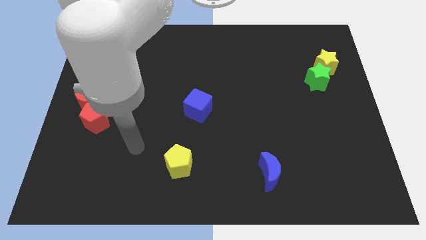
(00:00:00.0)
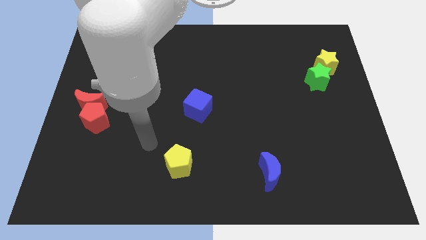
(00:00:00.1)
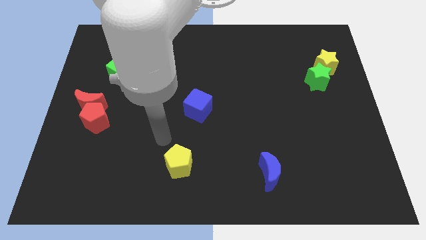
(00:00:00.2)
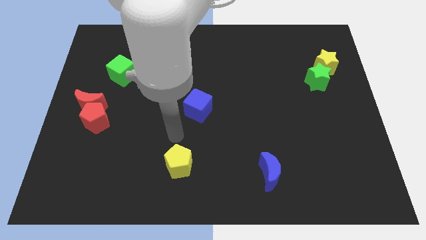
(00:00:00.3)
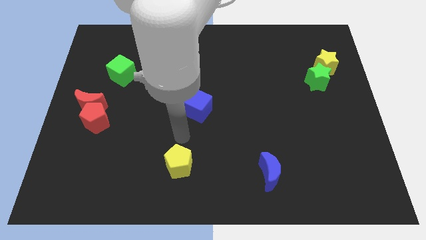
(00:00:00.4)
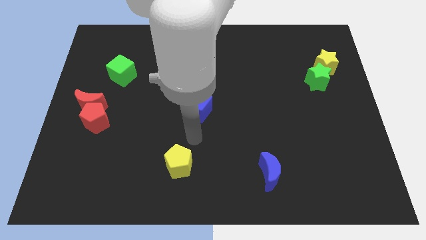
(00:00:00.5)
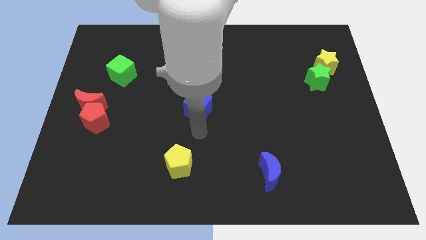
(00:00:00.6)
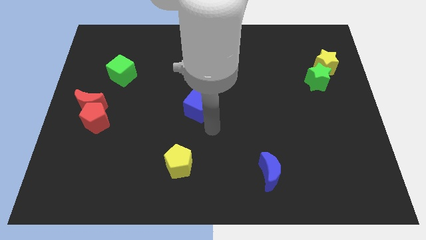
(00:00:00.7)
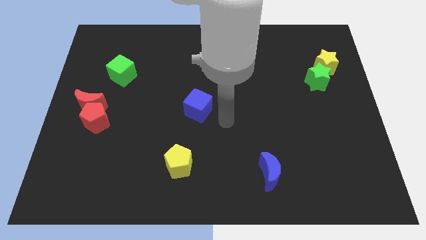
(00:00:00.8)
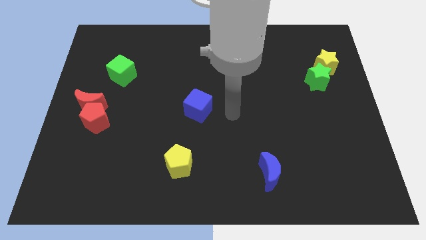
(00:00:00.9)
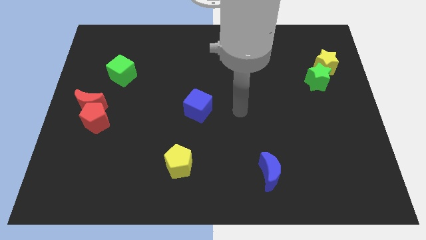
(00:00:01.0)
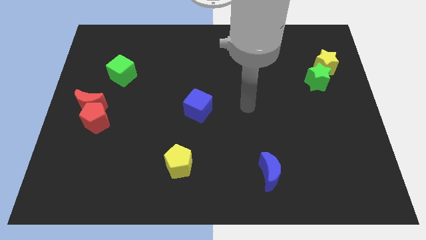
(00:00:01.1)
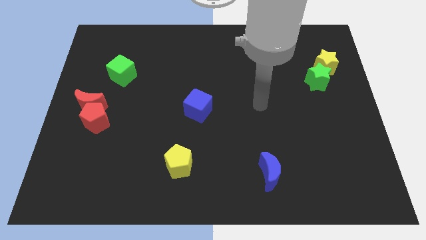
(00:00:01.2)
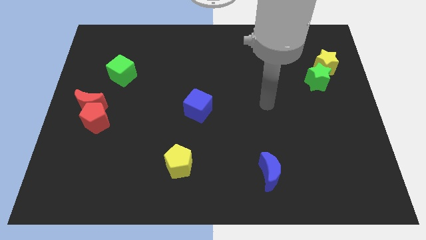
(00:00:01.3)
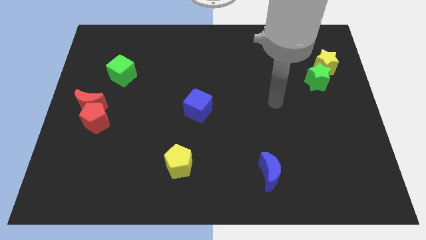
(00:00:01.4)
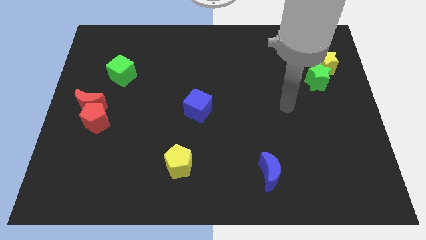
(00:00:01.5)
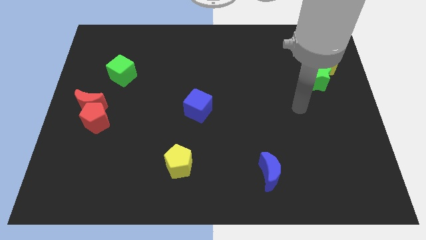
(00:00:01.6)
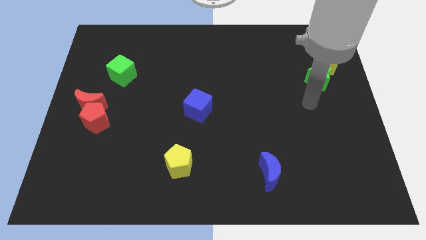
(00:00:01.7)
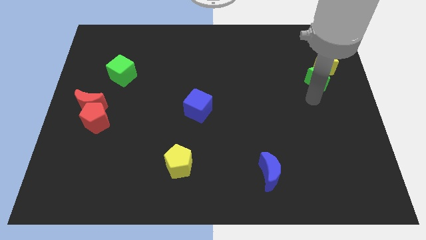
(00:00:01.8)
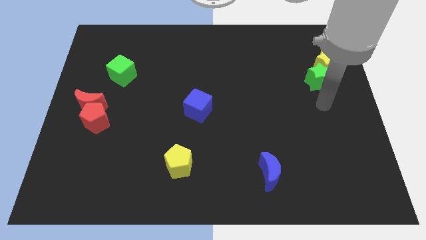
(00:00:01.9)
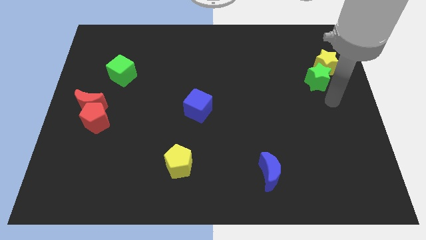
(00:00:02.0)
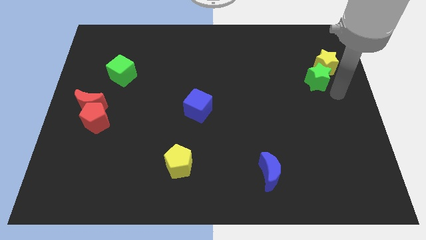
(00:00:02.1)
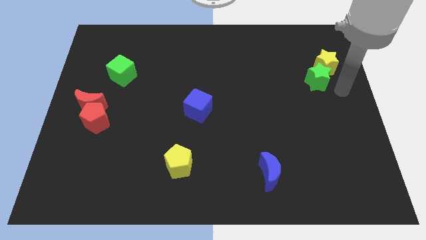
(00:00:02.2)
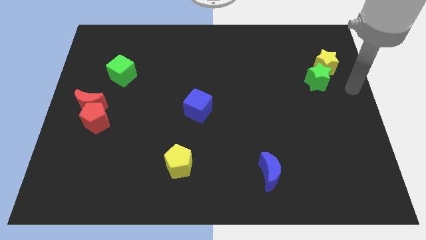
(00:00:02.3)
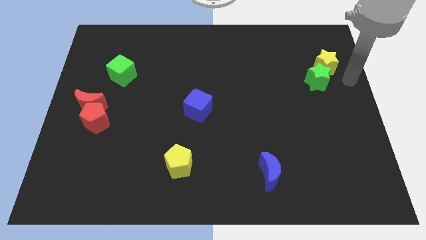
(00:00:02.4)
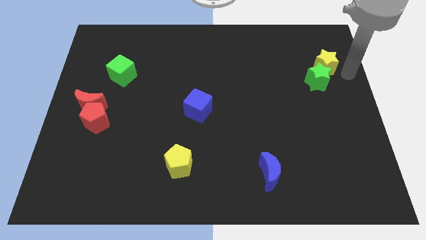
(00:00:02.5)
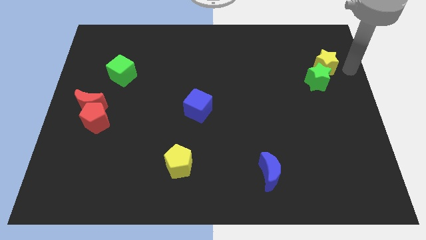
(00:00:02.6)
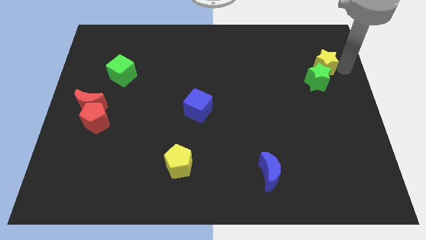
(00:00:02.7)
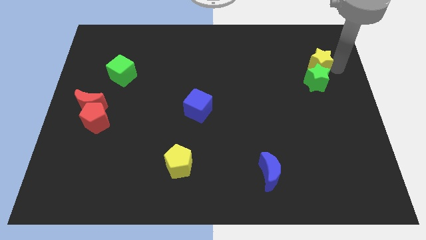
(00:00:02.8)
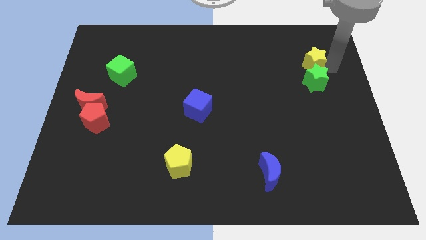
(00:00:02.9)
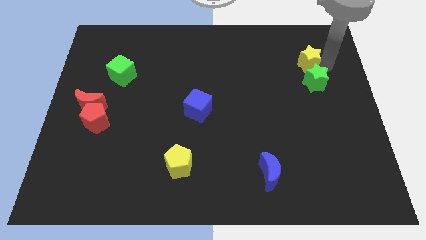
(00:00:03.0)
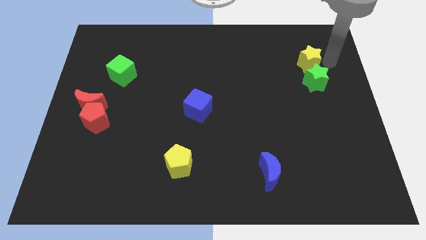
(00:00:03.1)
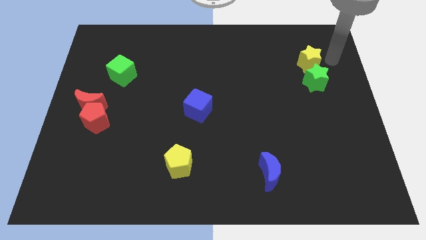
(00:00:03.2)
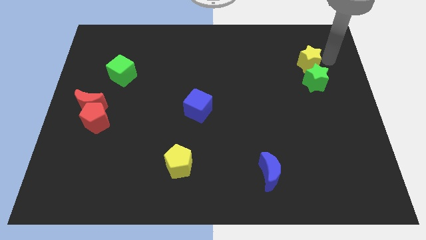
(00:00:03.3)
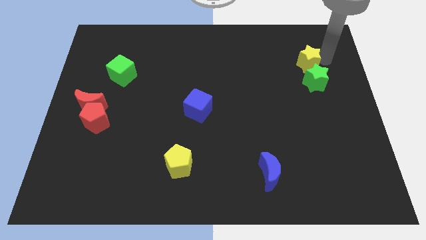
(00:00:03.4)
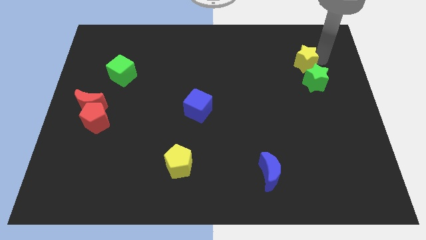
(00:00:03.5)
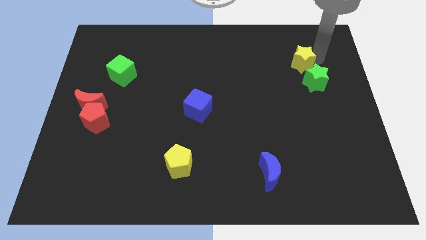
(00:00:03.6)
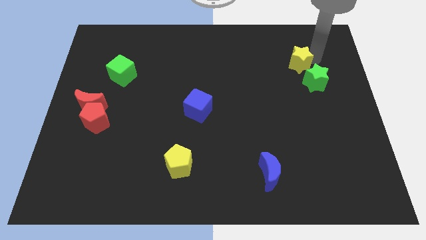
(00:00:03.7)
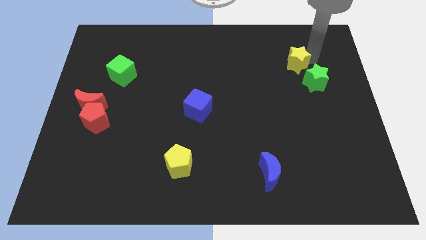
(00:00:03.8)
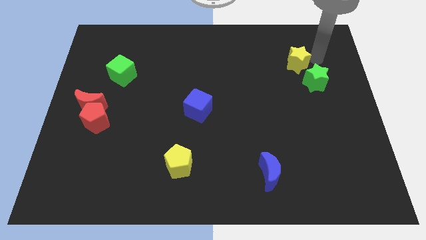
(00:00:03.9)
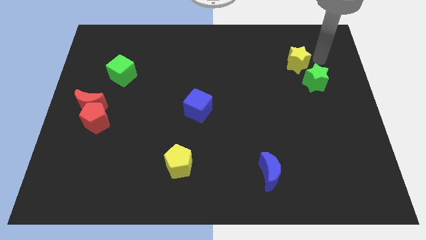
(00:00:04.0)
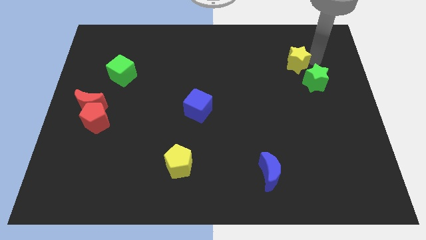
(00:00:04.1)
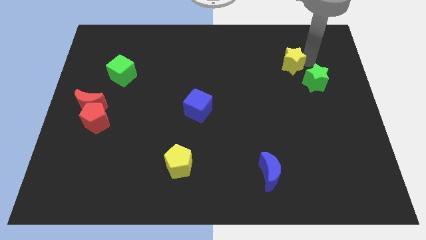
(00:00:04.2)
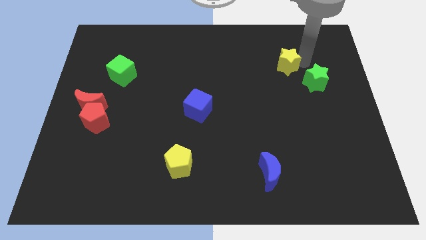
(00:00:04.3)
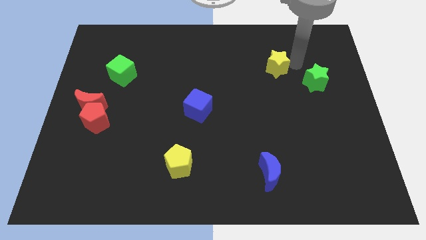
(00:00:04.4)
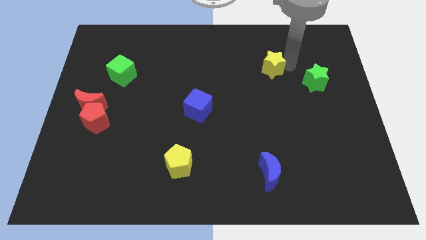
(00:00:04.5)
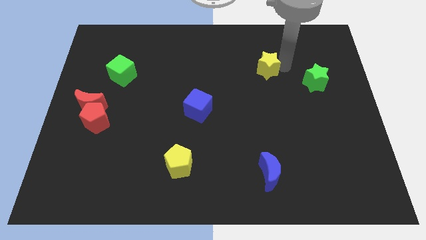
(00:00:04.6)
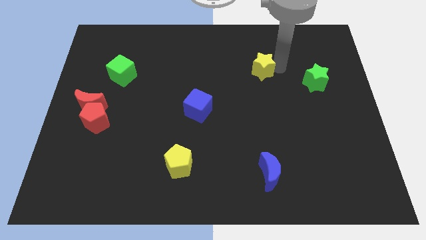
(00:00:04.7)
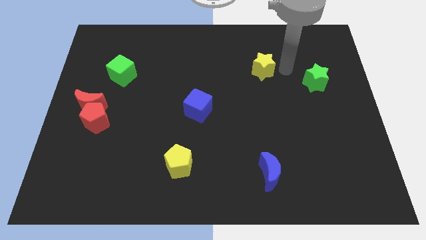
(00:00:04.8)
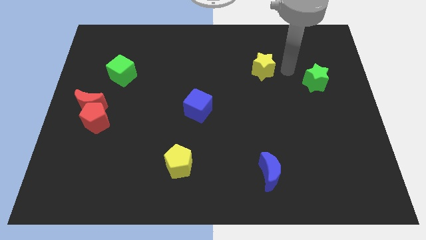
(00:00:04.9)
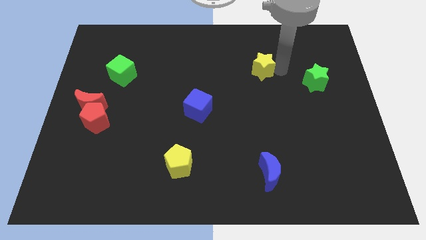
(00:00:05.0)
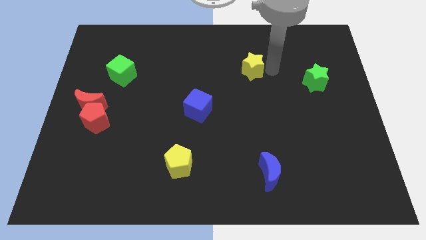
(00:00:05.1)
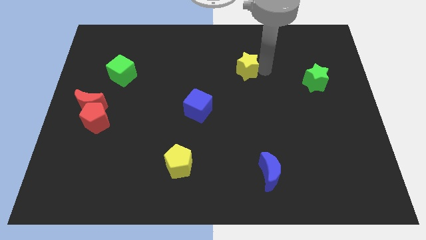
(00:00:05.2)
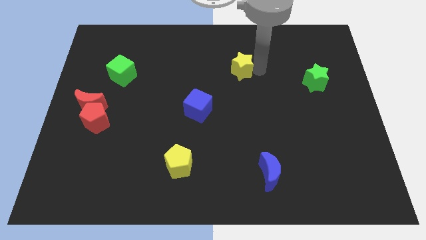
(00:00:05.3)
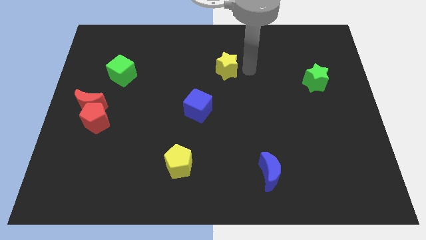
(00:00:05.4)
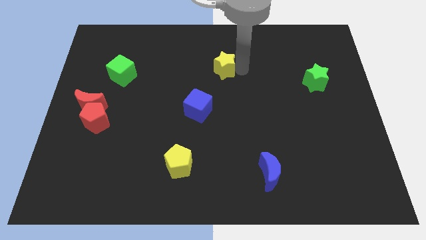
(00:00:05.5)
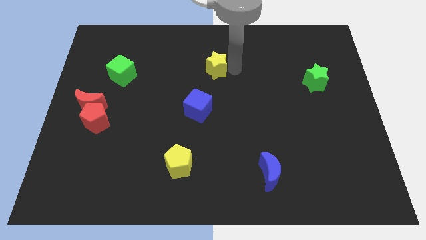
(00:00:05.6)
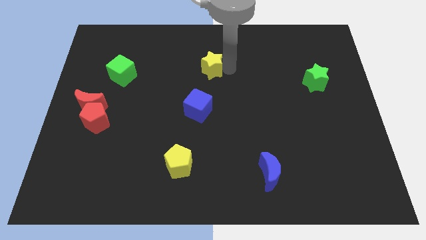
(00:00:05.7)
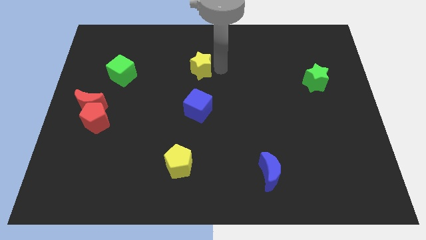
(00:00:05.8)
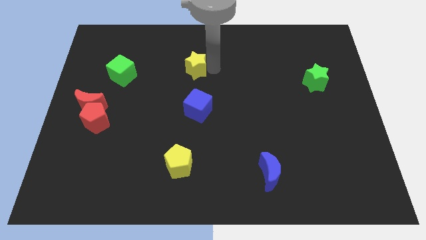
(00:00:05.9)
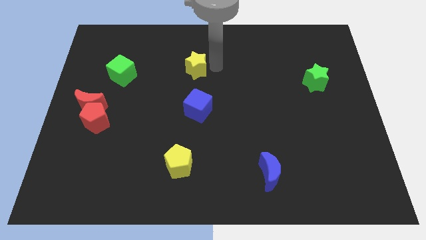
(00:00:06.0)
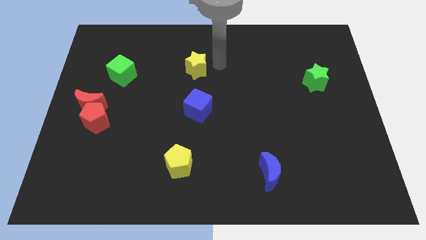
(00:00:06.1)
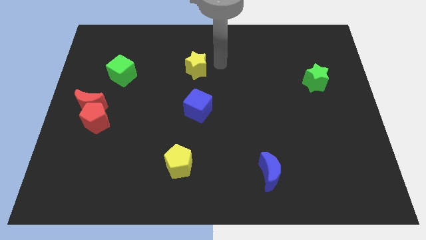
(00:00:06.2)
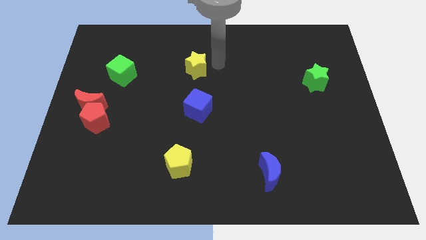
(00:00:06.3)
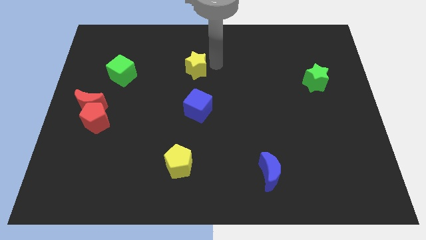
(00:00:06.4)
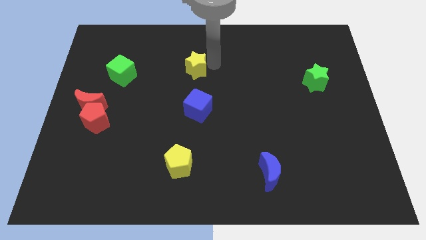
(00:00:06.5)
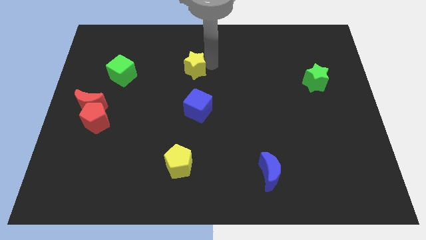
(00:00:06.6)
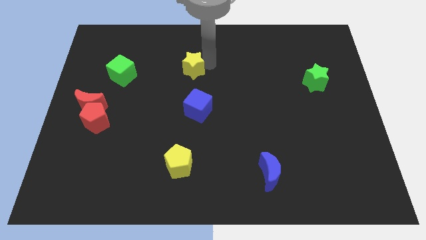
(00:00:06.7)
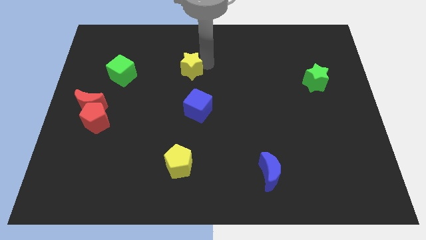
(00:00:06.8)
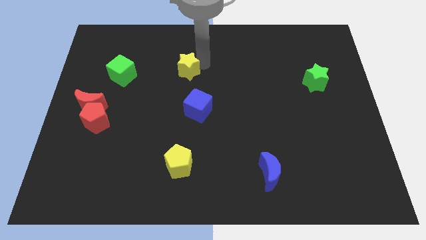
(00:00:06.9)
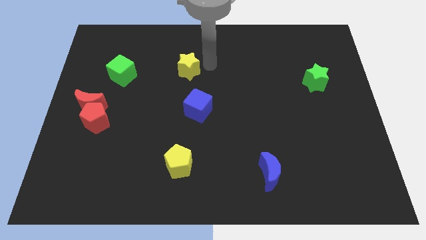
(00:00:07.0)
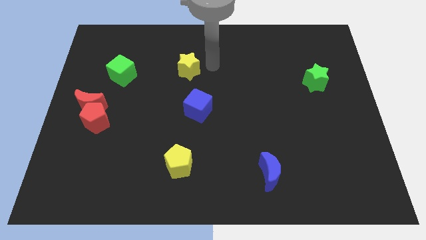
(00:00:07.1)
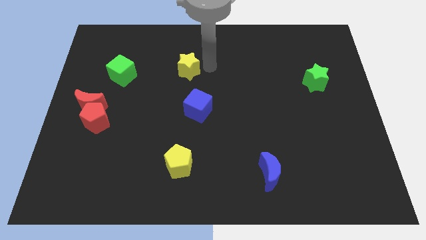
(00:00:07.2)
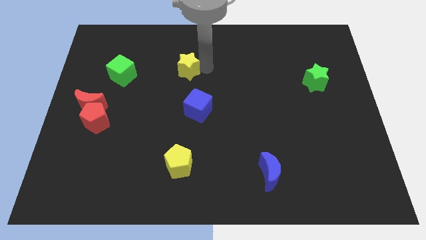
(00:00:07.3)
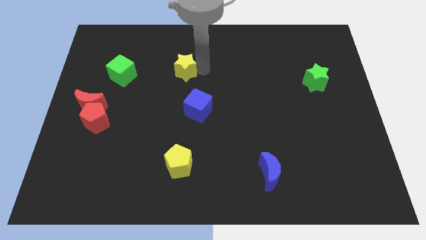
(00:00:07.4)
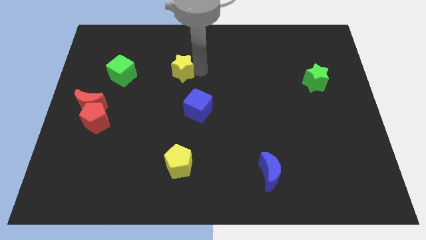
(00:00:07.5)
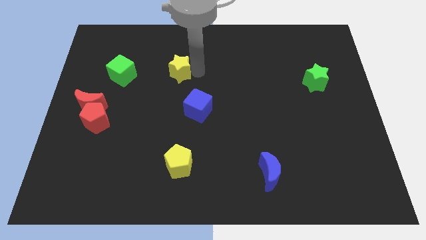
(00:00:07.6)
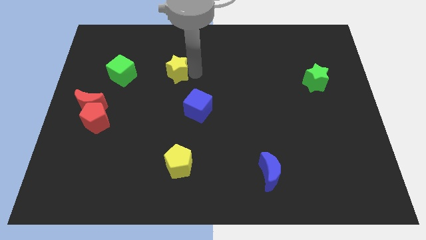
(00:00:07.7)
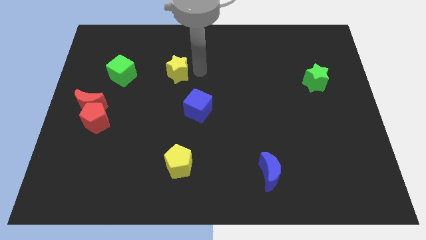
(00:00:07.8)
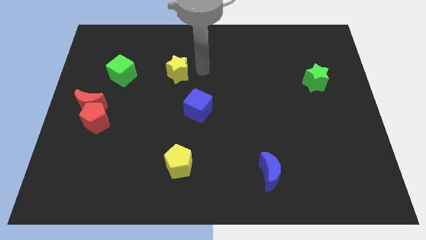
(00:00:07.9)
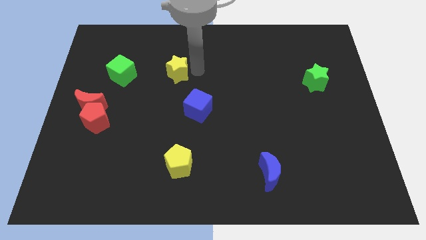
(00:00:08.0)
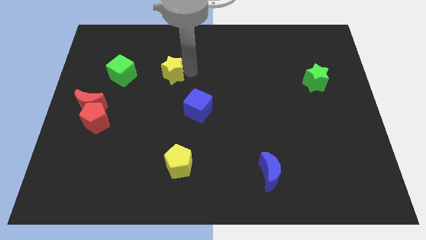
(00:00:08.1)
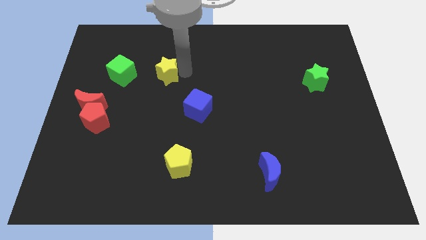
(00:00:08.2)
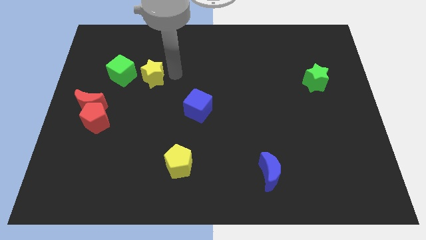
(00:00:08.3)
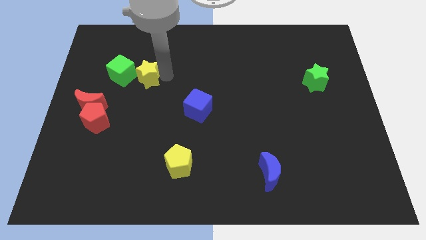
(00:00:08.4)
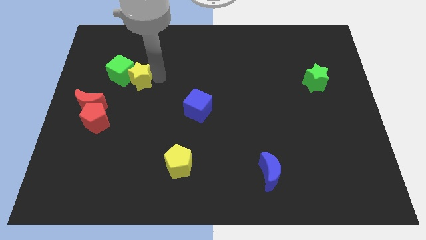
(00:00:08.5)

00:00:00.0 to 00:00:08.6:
push the yellow star to the green cube
